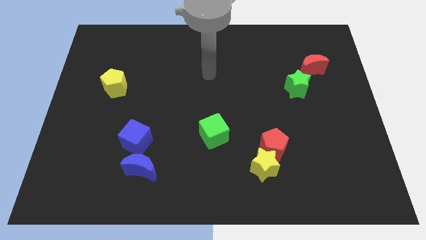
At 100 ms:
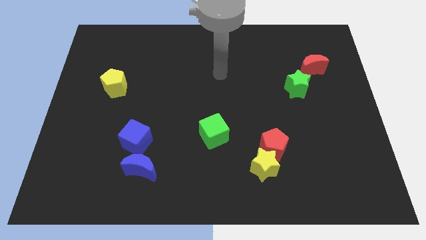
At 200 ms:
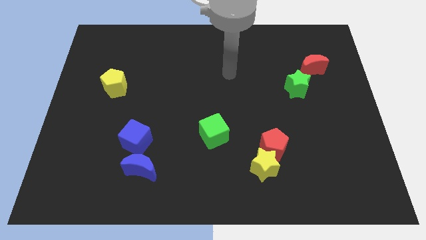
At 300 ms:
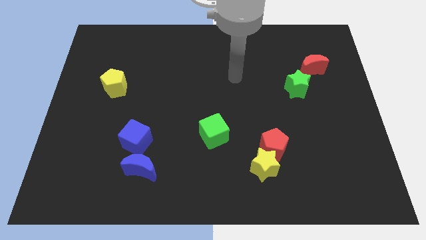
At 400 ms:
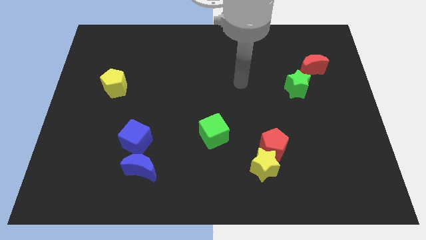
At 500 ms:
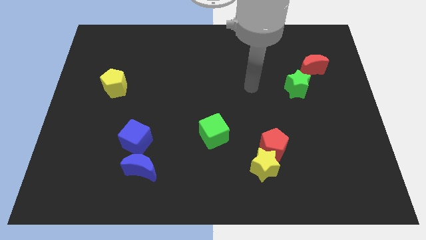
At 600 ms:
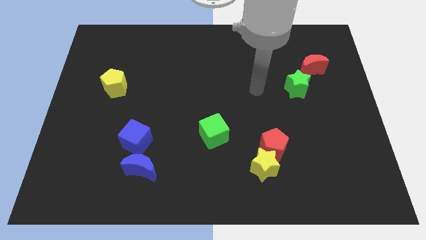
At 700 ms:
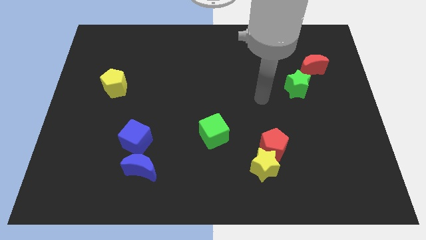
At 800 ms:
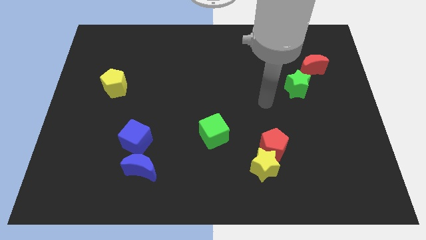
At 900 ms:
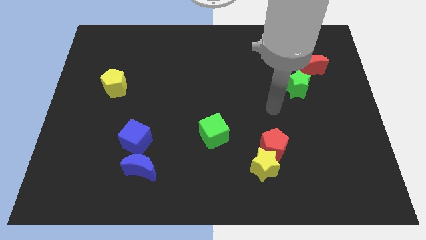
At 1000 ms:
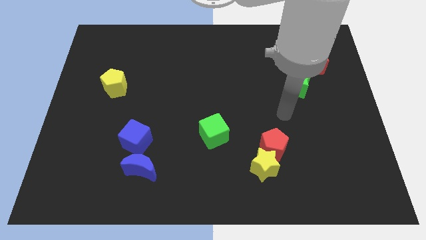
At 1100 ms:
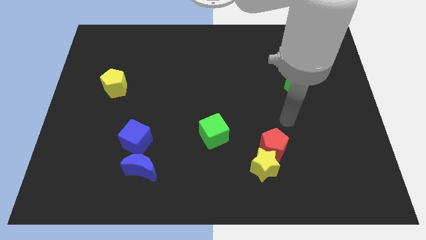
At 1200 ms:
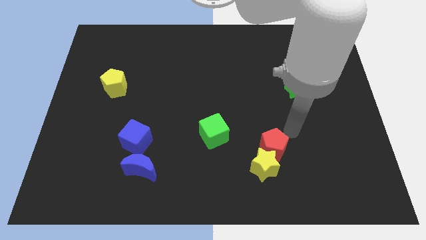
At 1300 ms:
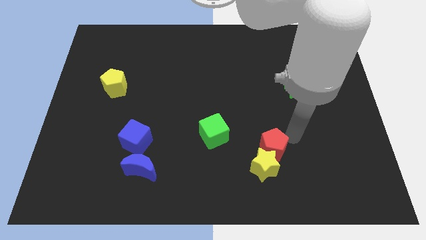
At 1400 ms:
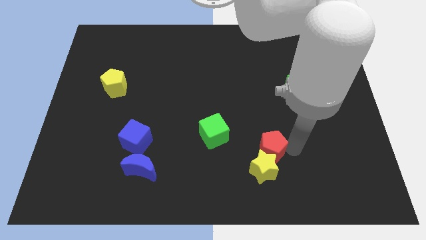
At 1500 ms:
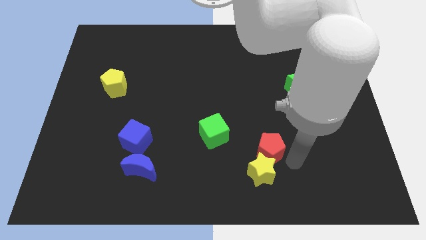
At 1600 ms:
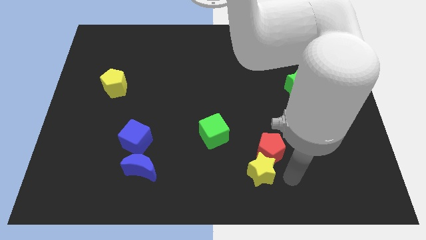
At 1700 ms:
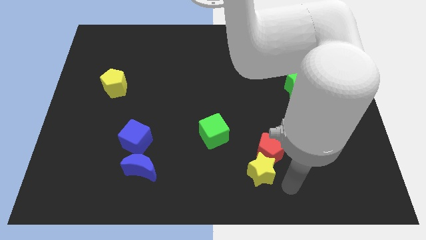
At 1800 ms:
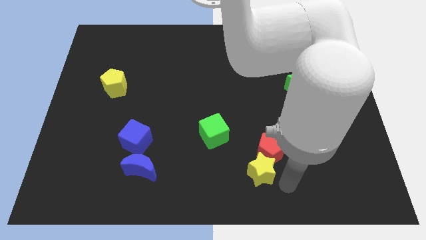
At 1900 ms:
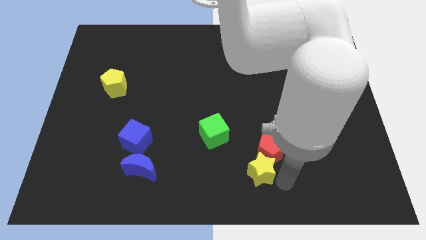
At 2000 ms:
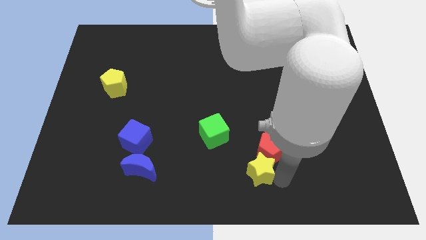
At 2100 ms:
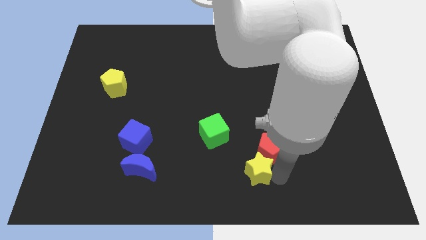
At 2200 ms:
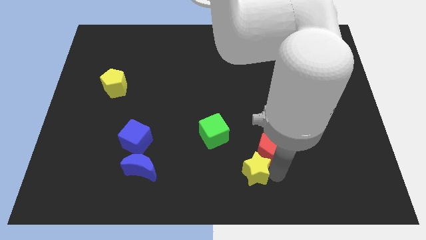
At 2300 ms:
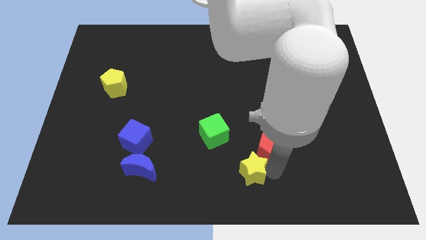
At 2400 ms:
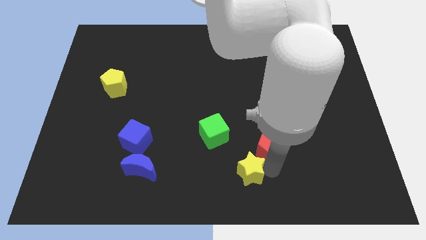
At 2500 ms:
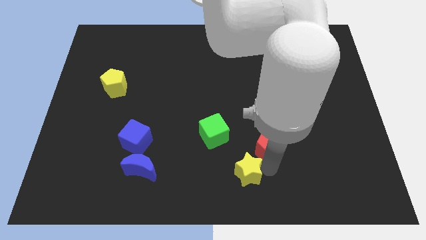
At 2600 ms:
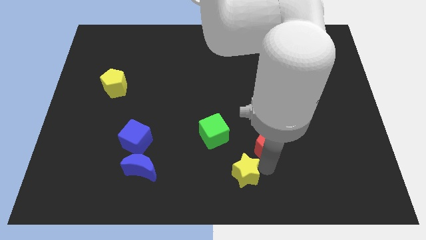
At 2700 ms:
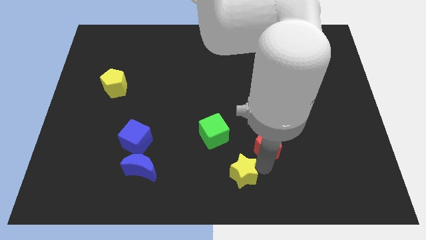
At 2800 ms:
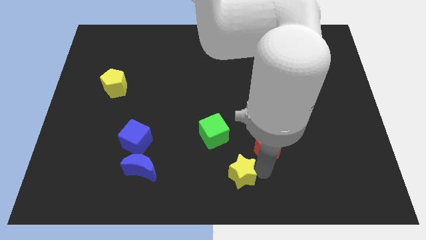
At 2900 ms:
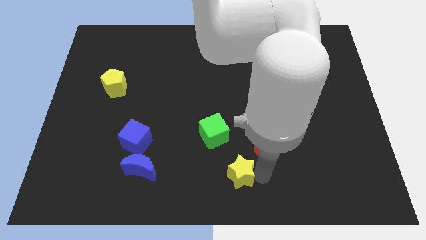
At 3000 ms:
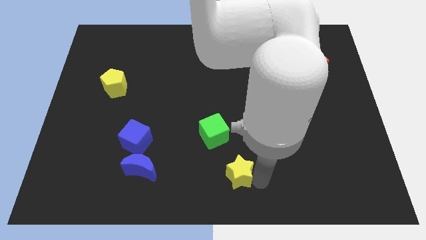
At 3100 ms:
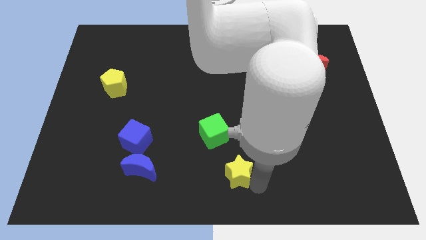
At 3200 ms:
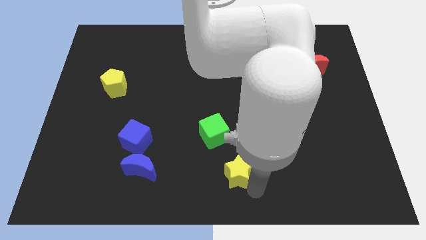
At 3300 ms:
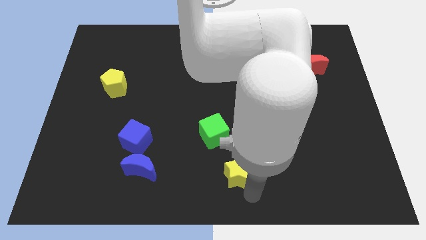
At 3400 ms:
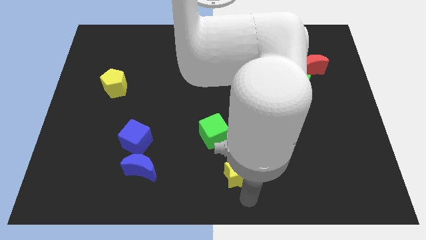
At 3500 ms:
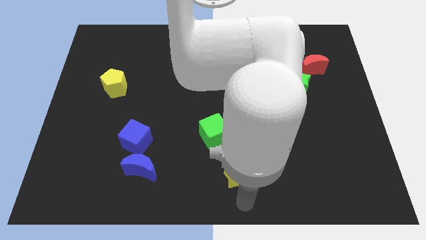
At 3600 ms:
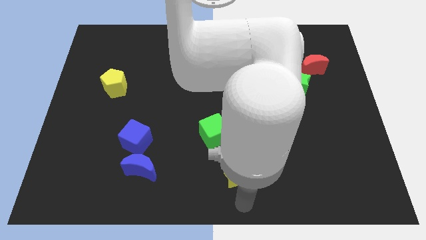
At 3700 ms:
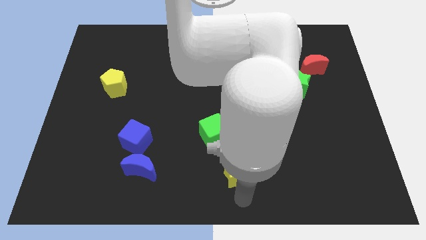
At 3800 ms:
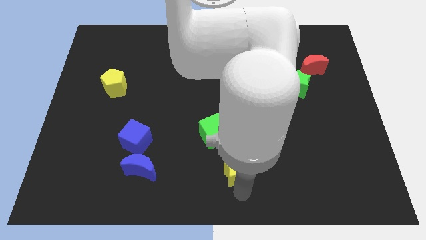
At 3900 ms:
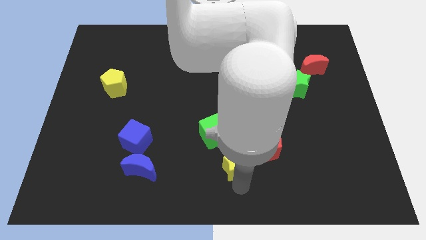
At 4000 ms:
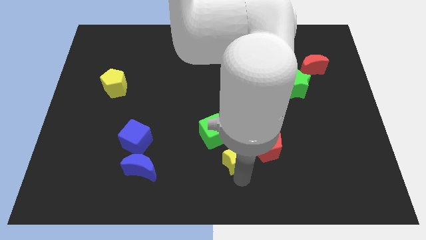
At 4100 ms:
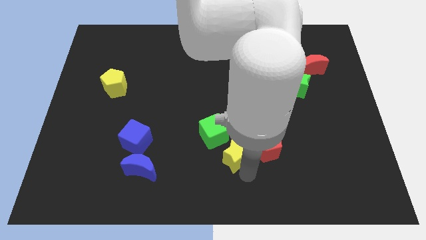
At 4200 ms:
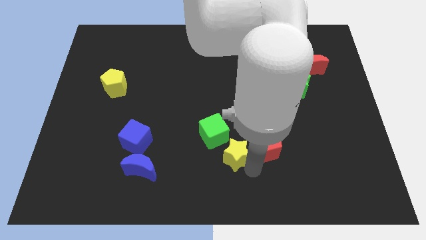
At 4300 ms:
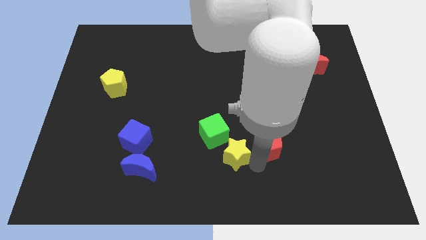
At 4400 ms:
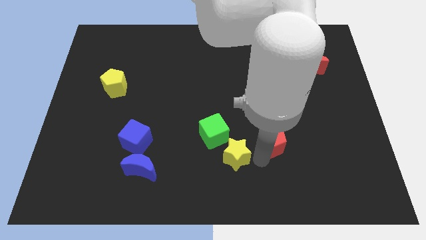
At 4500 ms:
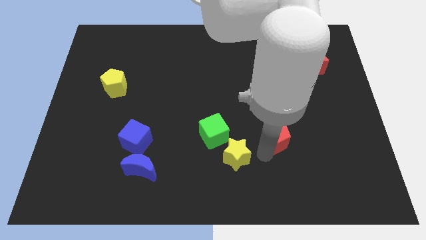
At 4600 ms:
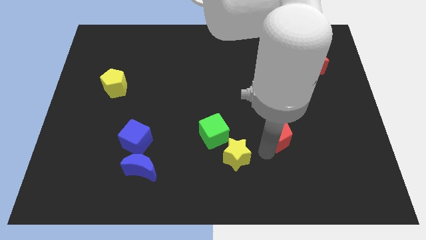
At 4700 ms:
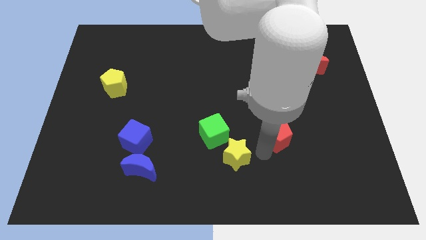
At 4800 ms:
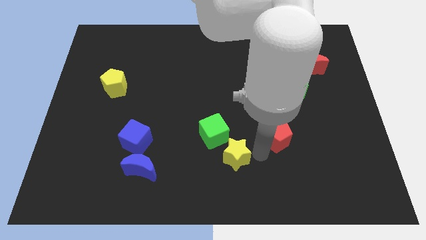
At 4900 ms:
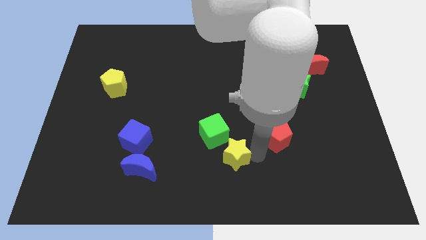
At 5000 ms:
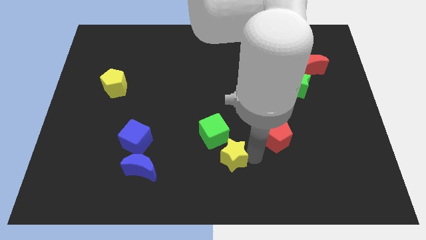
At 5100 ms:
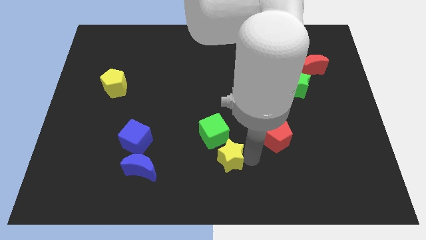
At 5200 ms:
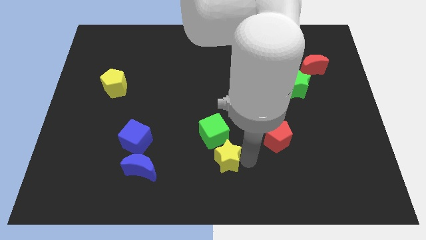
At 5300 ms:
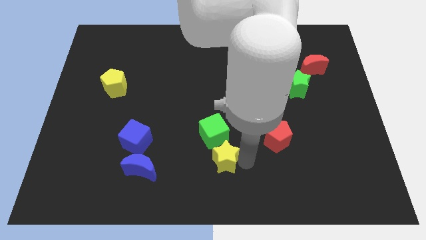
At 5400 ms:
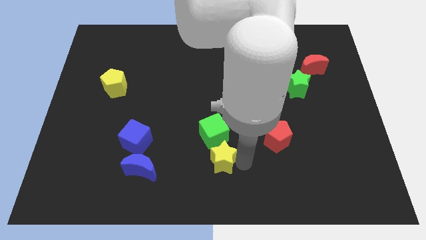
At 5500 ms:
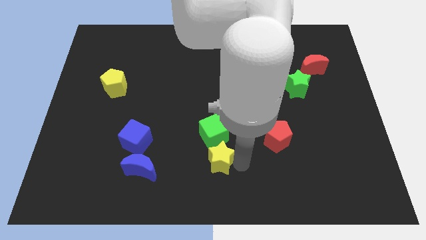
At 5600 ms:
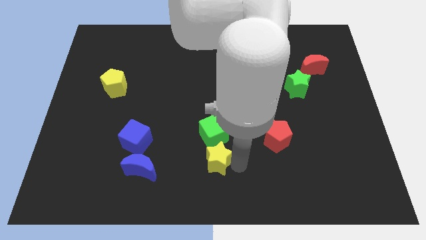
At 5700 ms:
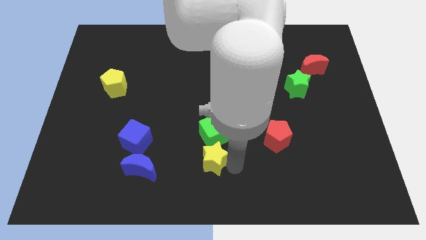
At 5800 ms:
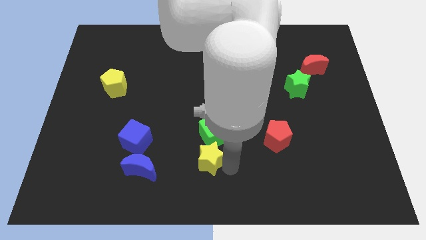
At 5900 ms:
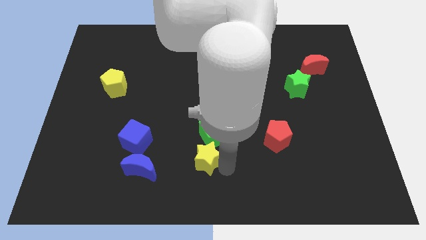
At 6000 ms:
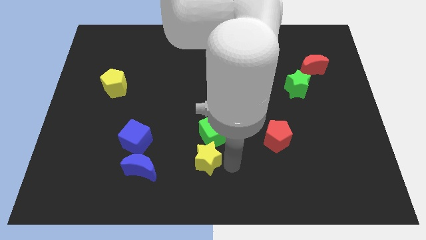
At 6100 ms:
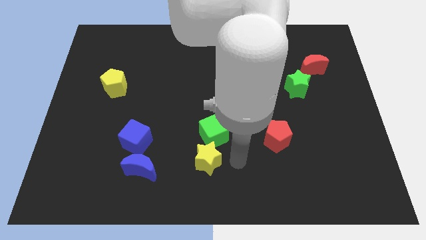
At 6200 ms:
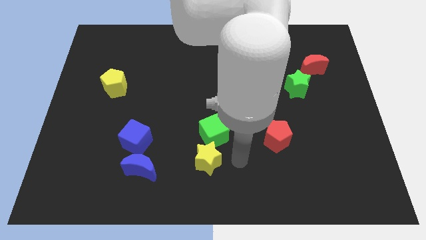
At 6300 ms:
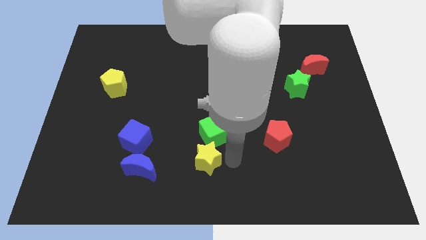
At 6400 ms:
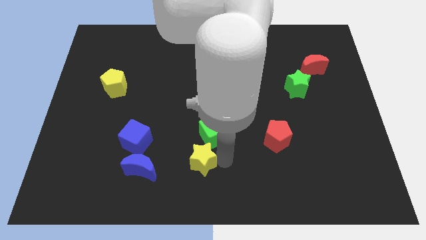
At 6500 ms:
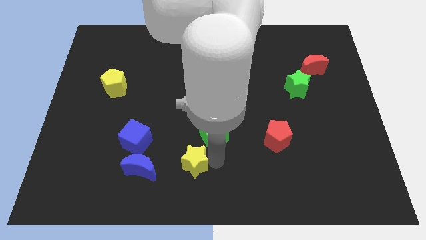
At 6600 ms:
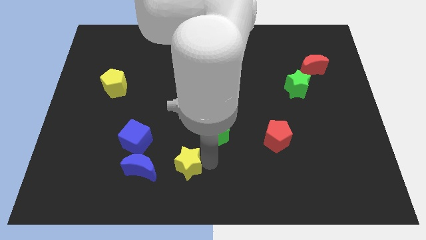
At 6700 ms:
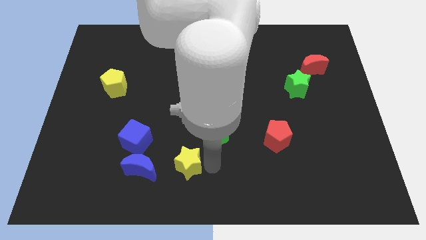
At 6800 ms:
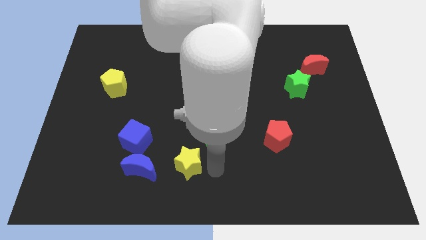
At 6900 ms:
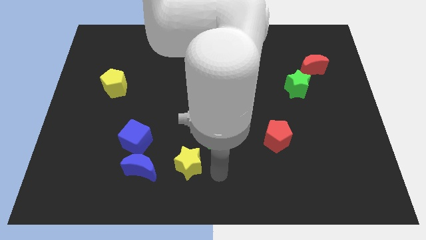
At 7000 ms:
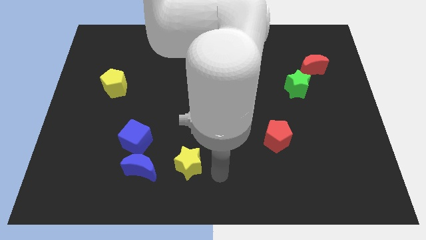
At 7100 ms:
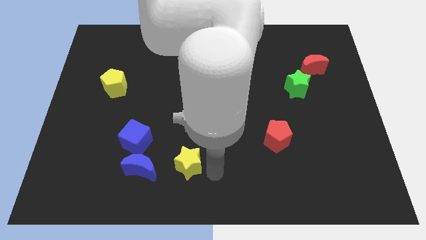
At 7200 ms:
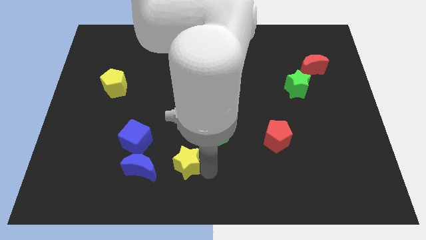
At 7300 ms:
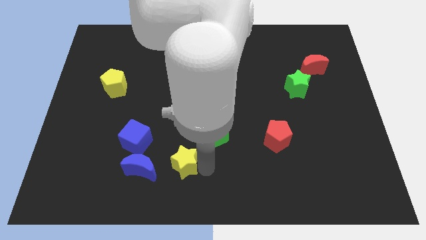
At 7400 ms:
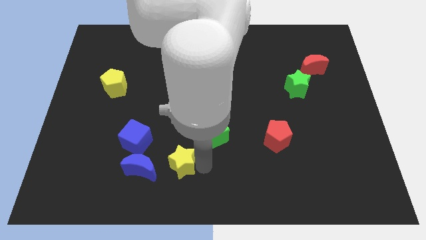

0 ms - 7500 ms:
push the yellow star to the bottom right of the blue cube

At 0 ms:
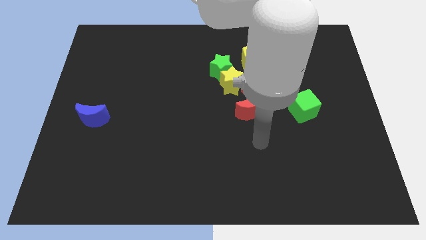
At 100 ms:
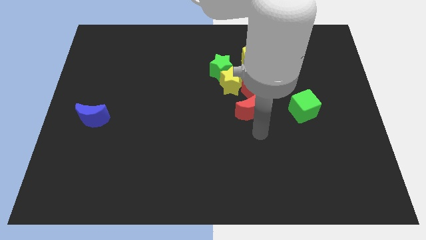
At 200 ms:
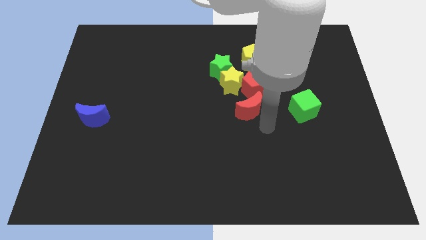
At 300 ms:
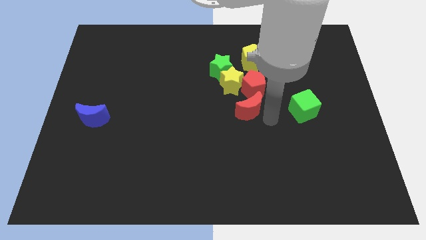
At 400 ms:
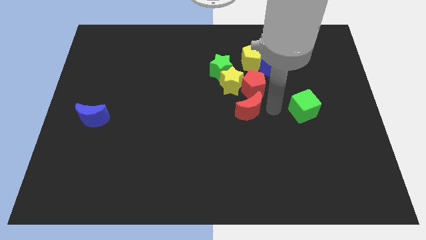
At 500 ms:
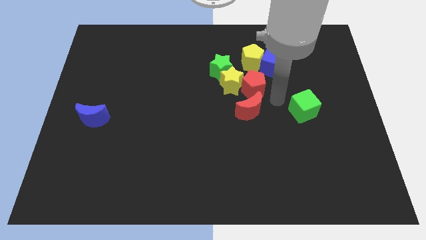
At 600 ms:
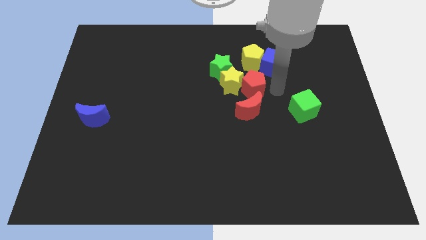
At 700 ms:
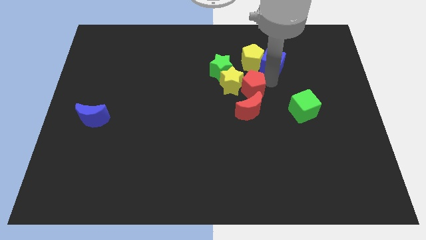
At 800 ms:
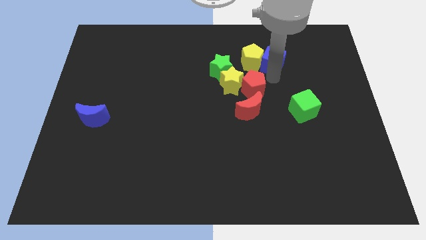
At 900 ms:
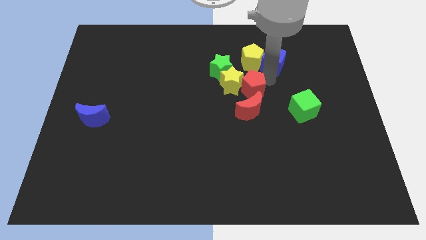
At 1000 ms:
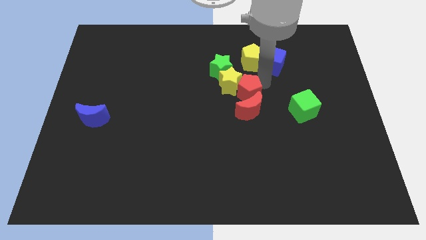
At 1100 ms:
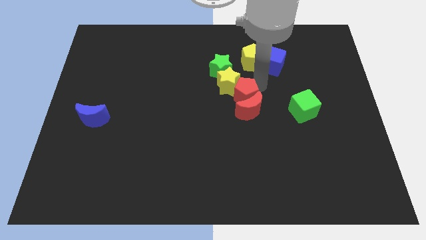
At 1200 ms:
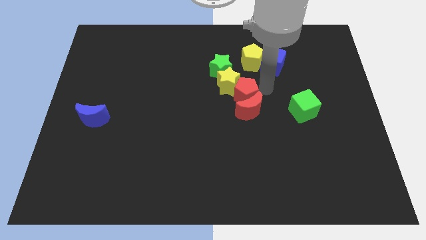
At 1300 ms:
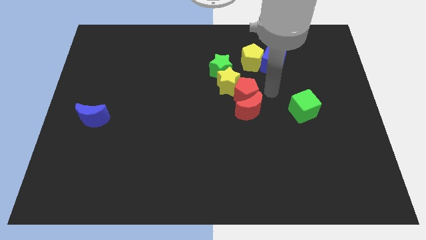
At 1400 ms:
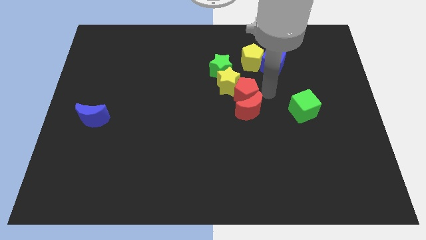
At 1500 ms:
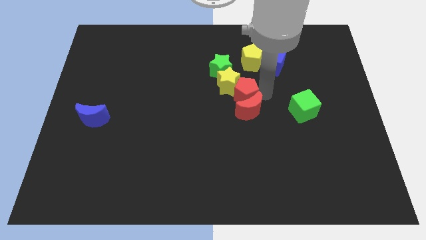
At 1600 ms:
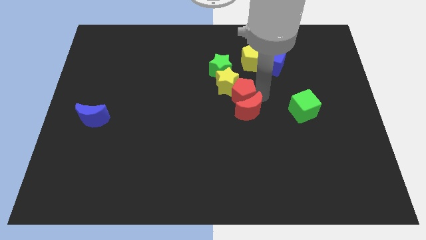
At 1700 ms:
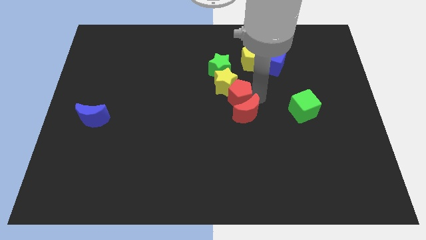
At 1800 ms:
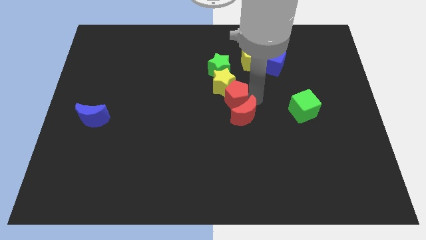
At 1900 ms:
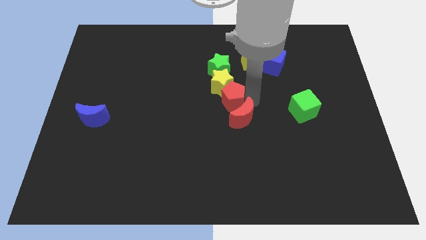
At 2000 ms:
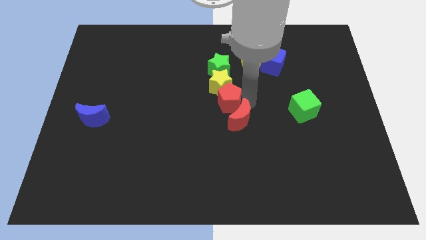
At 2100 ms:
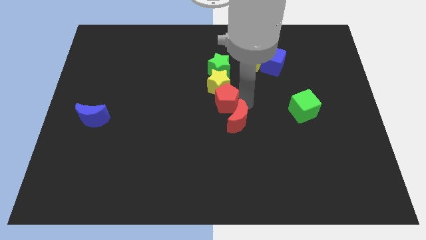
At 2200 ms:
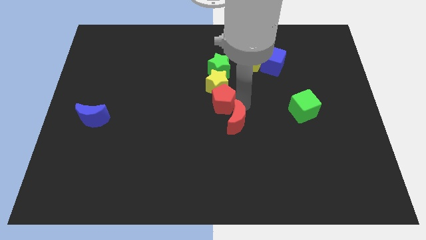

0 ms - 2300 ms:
move the red pentagon to the bottom left of the yellow star
